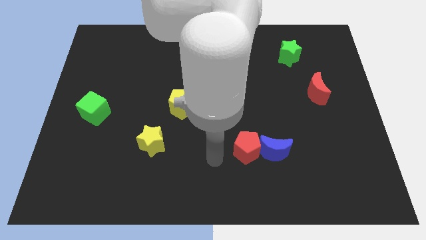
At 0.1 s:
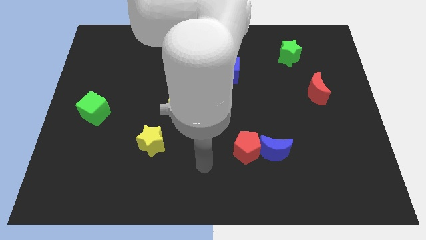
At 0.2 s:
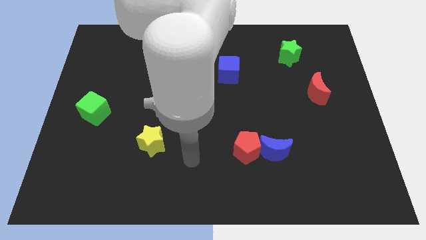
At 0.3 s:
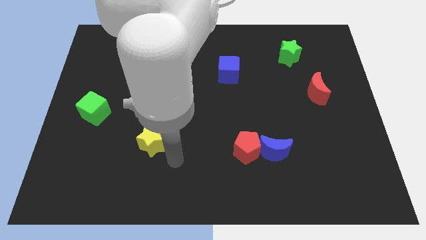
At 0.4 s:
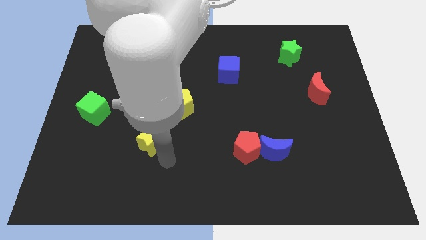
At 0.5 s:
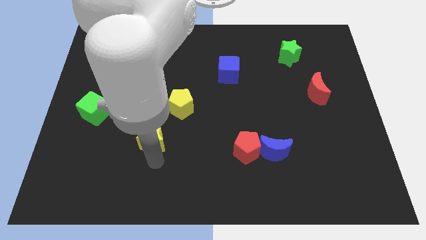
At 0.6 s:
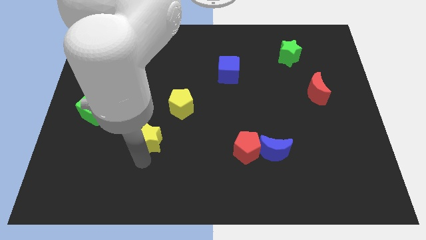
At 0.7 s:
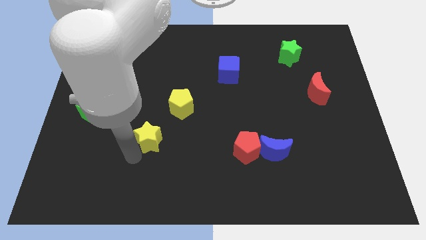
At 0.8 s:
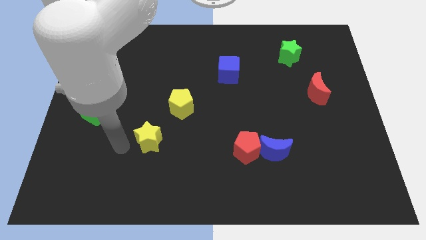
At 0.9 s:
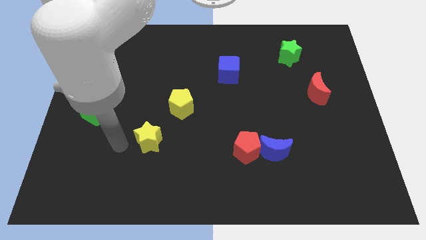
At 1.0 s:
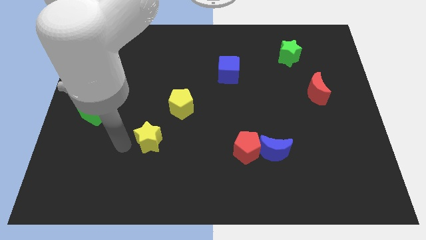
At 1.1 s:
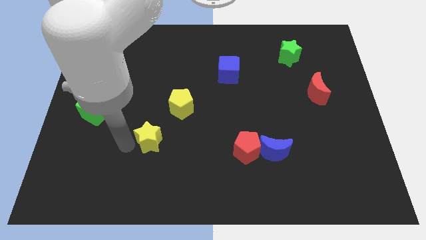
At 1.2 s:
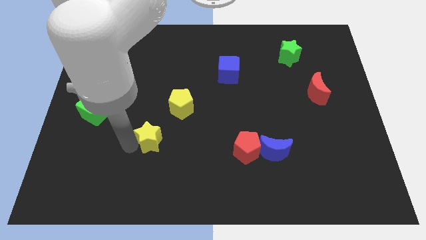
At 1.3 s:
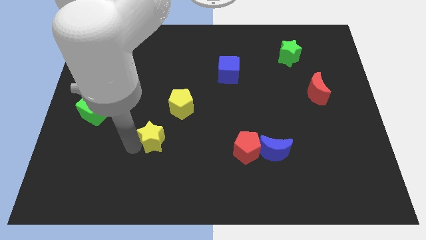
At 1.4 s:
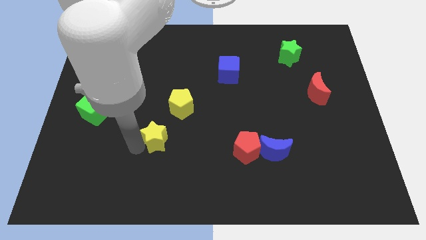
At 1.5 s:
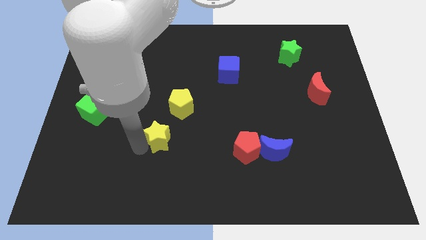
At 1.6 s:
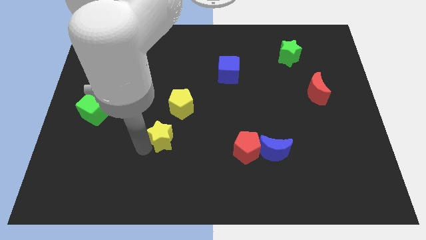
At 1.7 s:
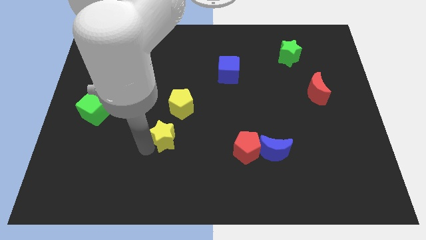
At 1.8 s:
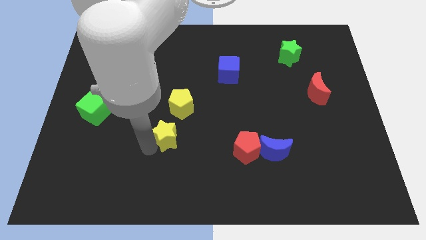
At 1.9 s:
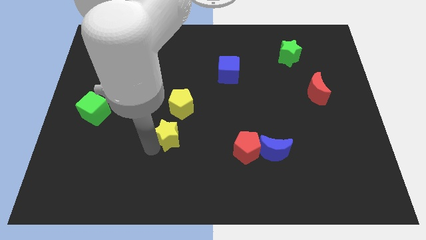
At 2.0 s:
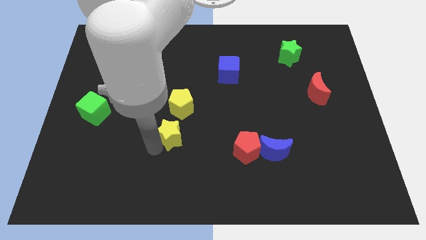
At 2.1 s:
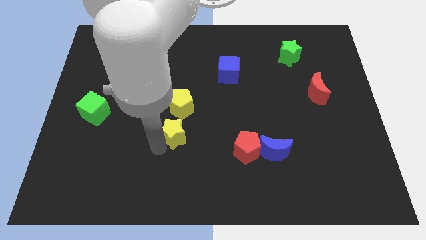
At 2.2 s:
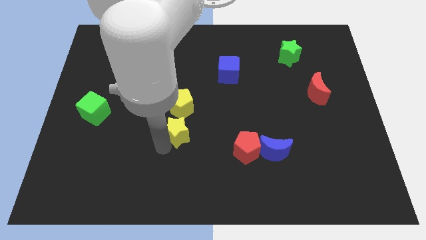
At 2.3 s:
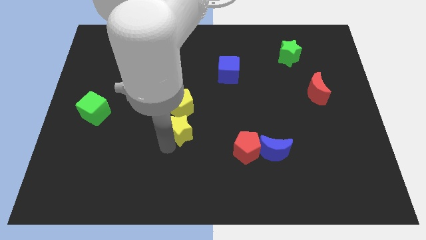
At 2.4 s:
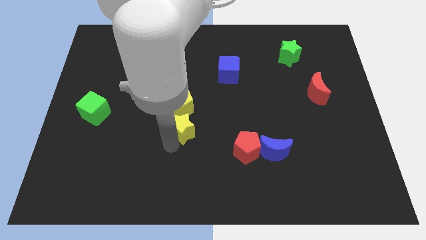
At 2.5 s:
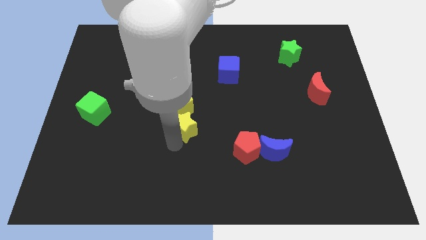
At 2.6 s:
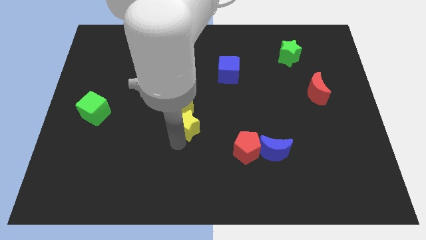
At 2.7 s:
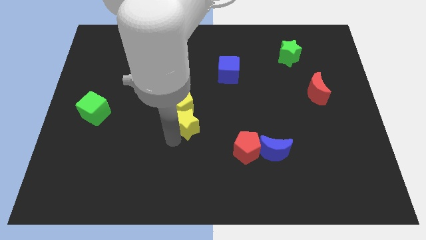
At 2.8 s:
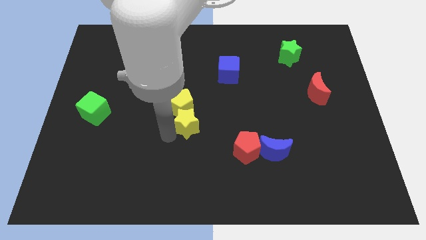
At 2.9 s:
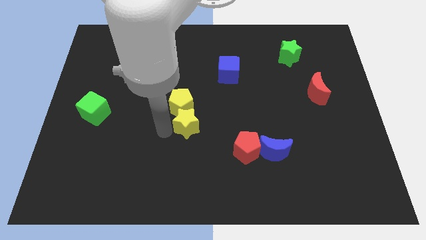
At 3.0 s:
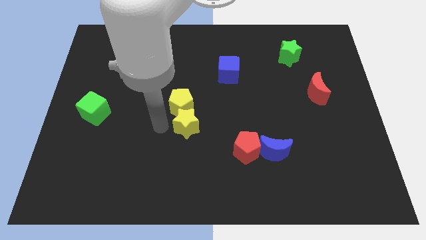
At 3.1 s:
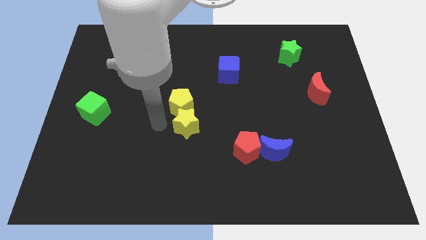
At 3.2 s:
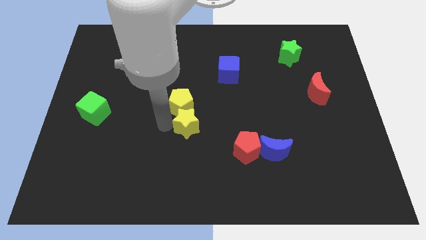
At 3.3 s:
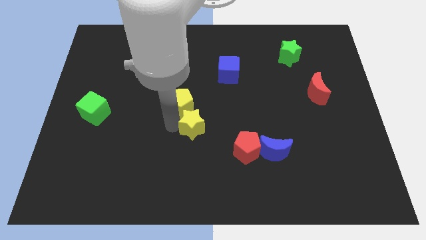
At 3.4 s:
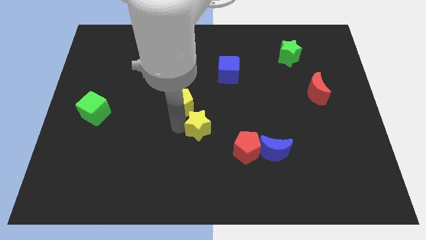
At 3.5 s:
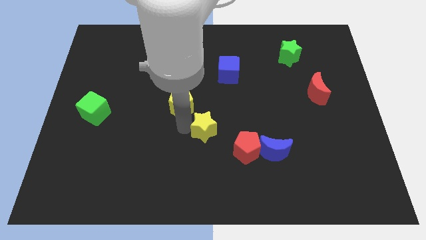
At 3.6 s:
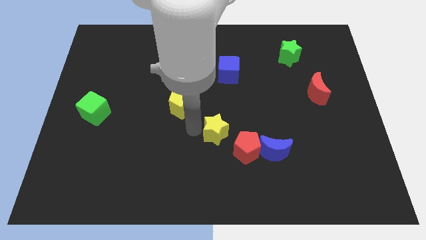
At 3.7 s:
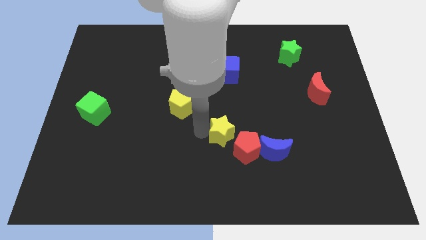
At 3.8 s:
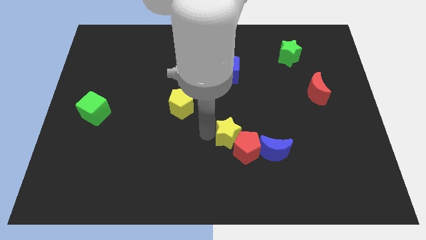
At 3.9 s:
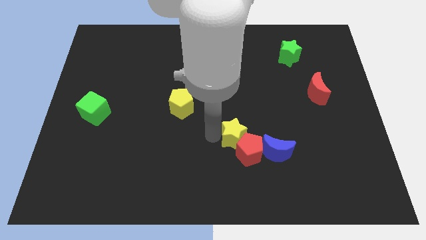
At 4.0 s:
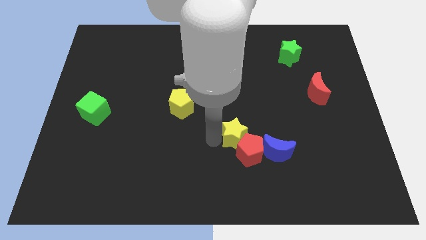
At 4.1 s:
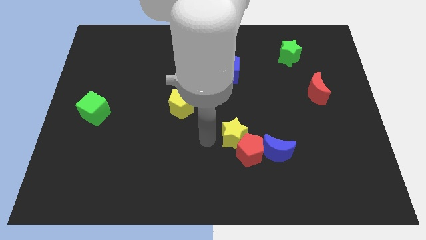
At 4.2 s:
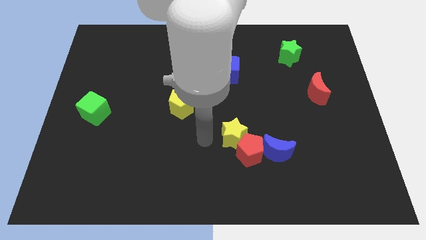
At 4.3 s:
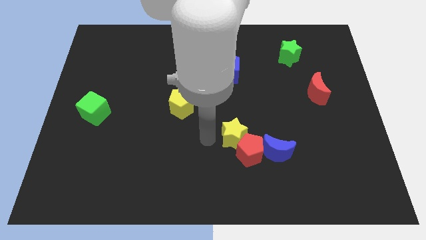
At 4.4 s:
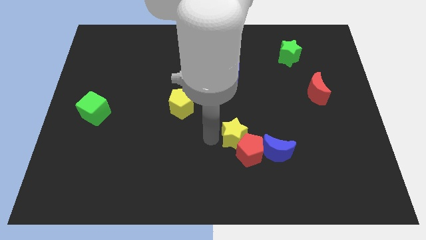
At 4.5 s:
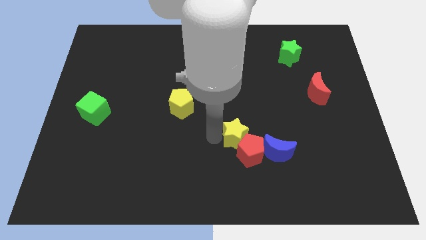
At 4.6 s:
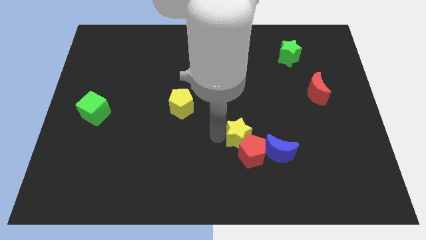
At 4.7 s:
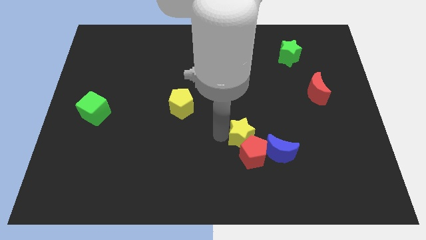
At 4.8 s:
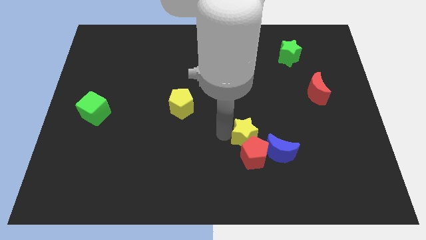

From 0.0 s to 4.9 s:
slide the yellow star to the right

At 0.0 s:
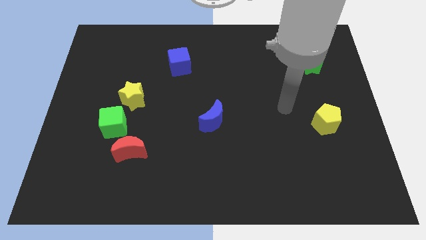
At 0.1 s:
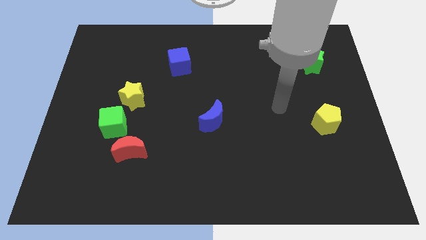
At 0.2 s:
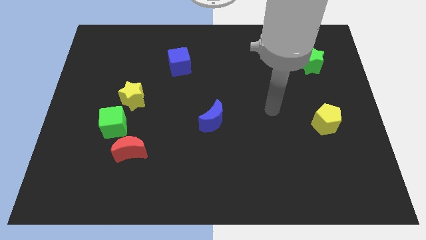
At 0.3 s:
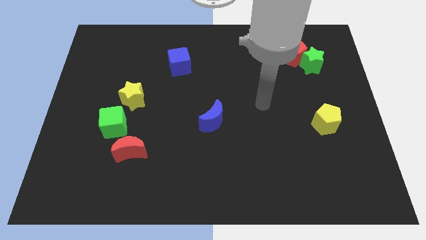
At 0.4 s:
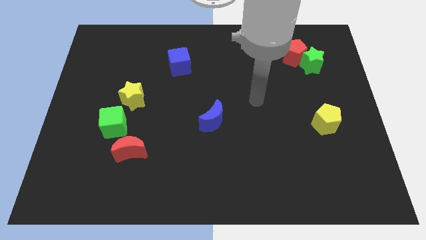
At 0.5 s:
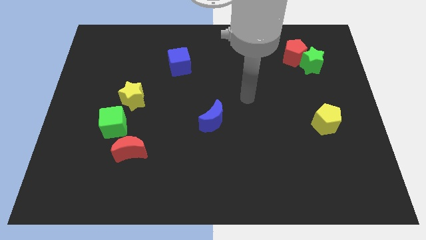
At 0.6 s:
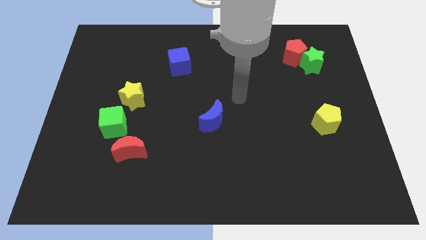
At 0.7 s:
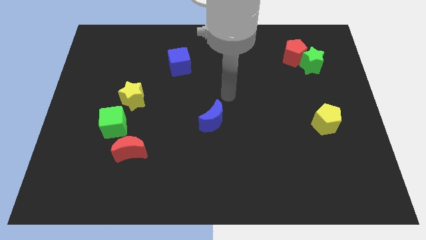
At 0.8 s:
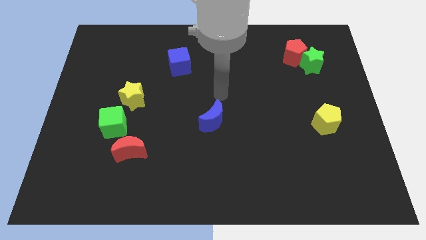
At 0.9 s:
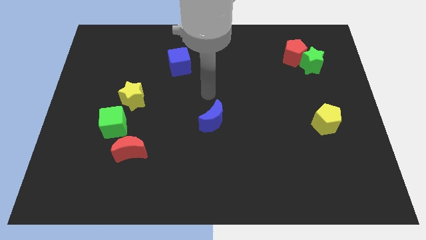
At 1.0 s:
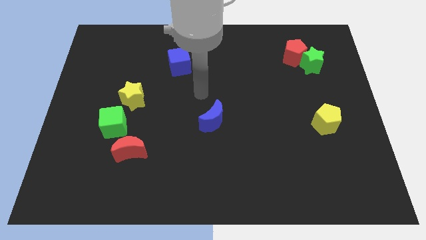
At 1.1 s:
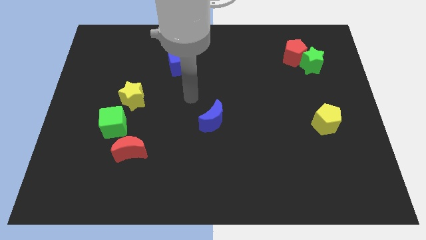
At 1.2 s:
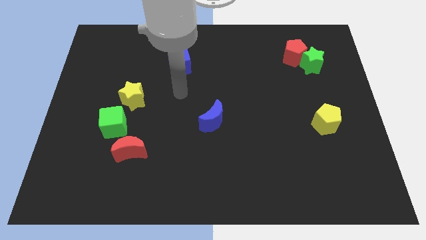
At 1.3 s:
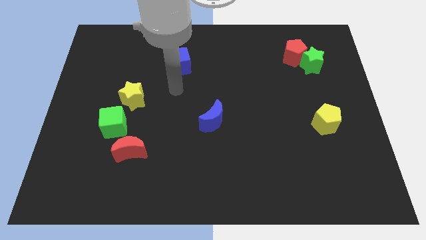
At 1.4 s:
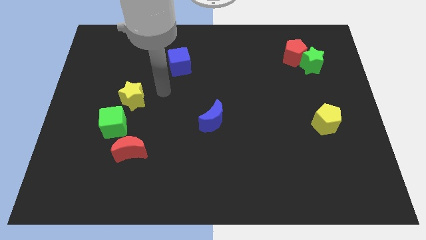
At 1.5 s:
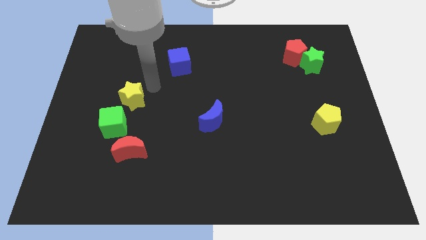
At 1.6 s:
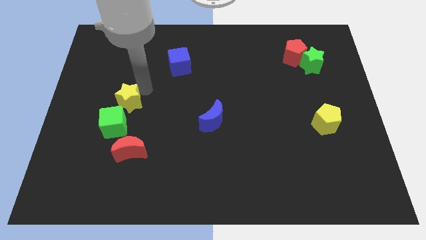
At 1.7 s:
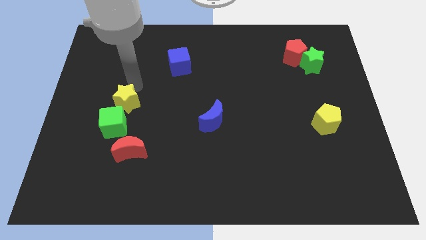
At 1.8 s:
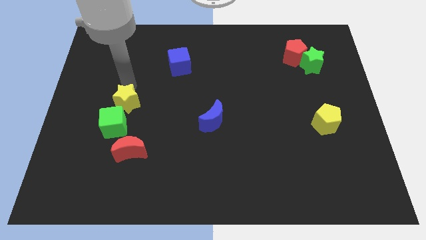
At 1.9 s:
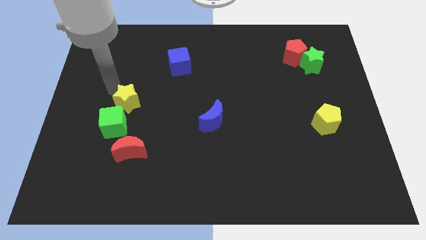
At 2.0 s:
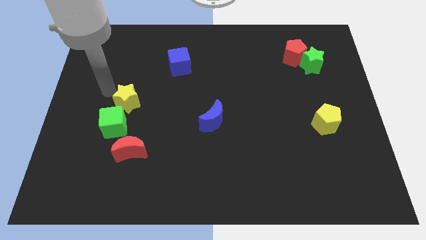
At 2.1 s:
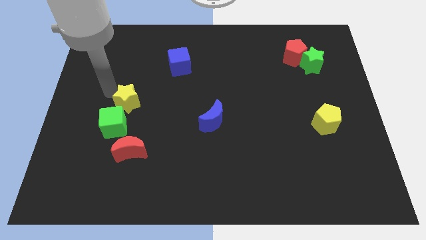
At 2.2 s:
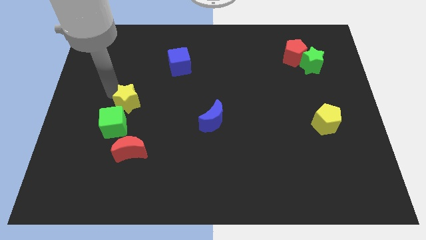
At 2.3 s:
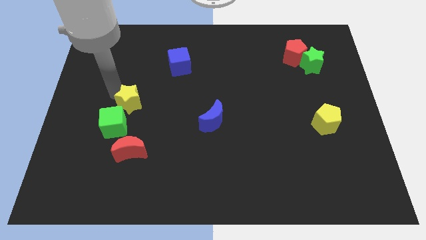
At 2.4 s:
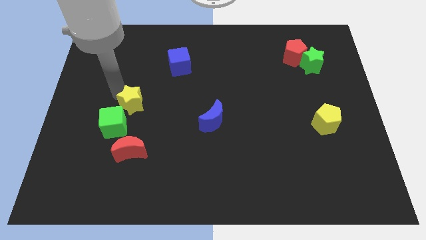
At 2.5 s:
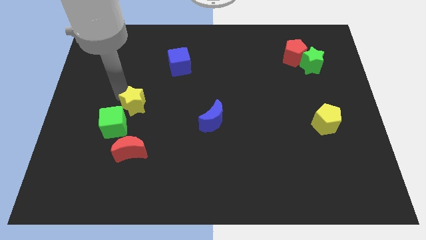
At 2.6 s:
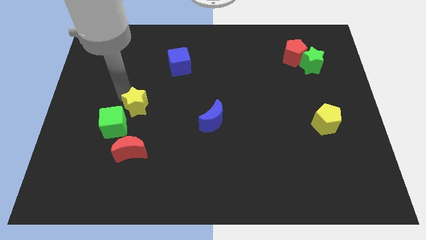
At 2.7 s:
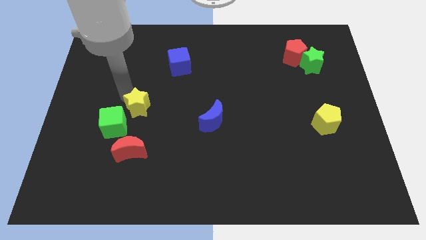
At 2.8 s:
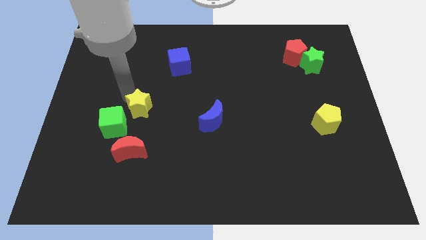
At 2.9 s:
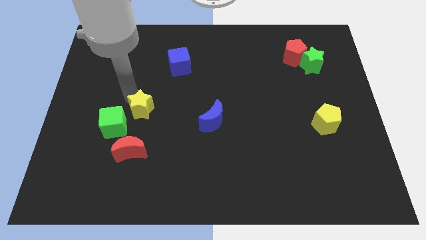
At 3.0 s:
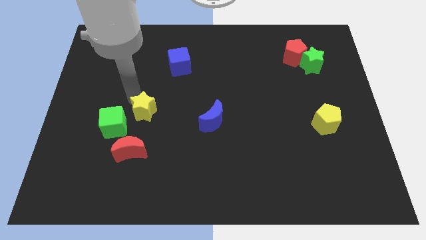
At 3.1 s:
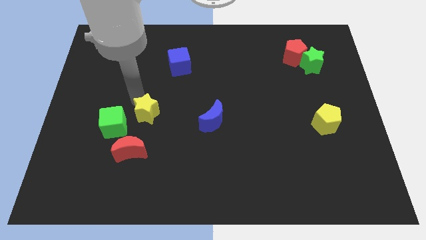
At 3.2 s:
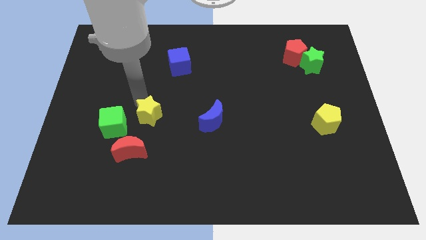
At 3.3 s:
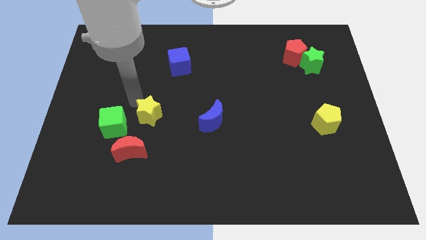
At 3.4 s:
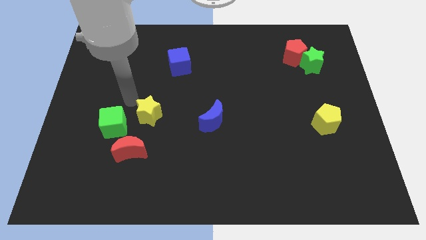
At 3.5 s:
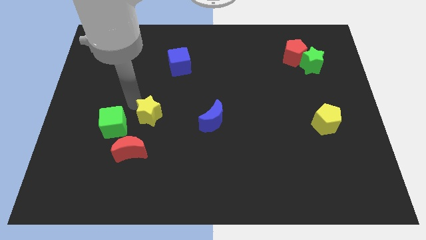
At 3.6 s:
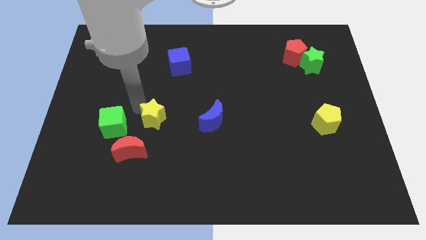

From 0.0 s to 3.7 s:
slightly slide the yellow star down and then right
